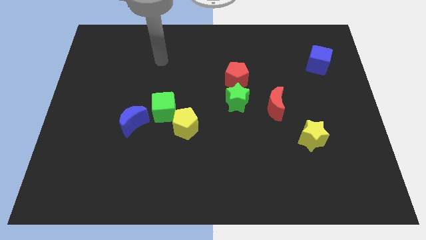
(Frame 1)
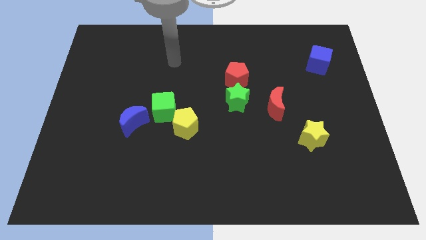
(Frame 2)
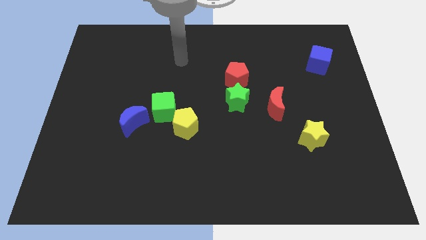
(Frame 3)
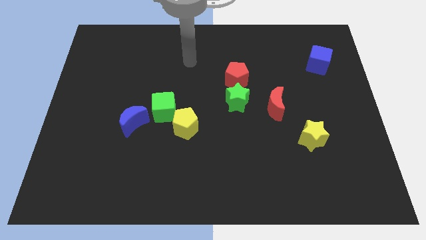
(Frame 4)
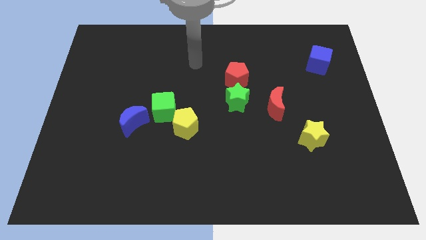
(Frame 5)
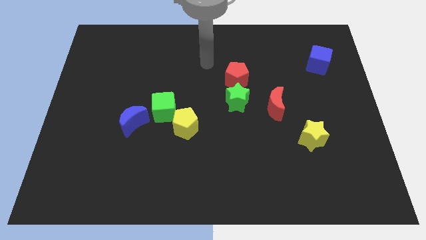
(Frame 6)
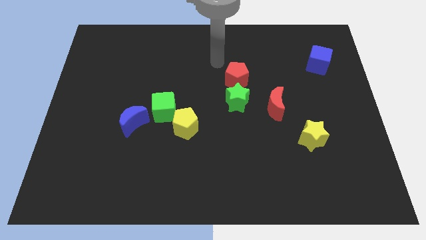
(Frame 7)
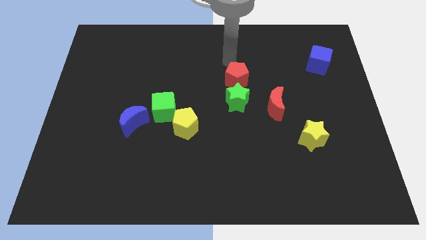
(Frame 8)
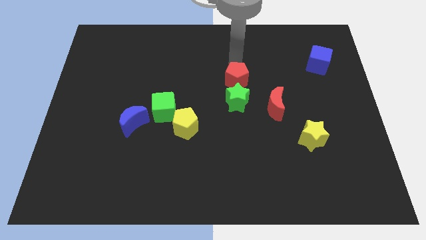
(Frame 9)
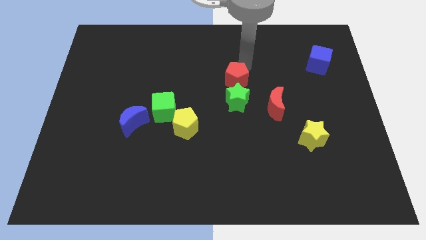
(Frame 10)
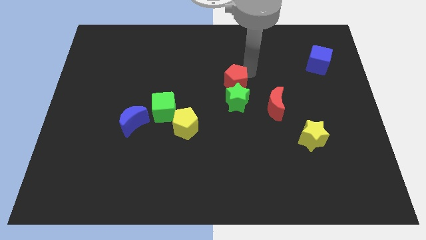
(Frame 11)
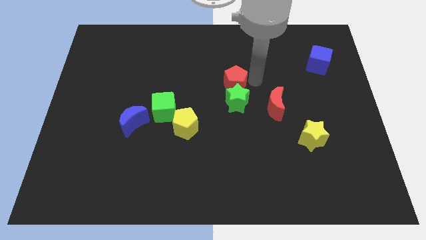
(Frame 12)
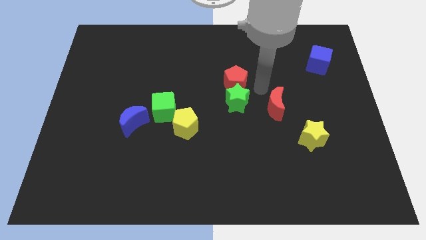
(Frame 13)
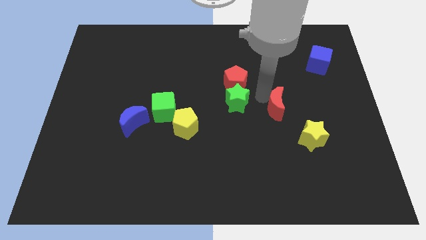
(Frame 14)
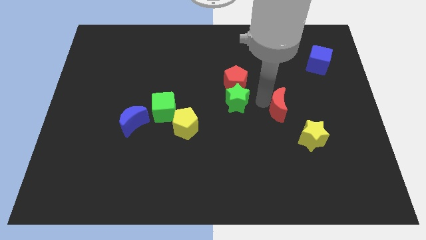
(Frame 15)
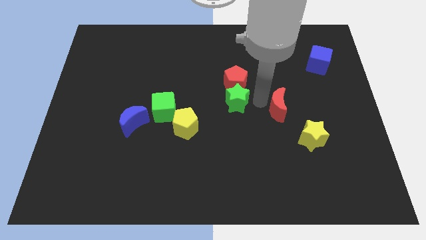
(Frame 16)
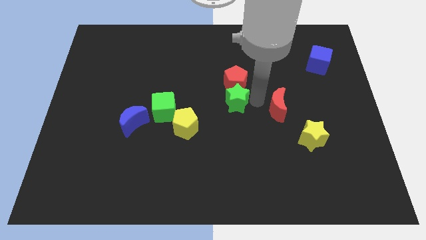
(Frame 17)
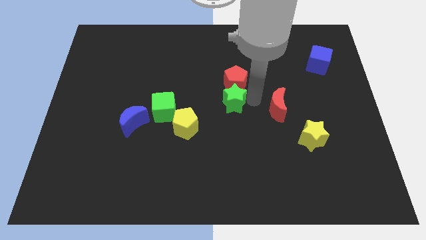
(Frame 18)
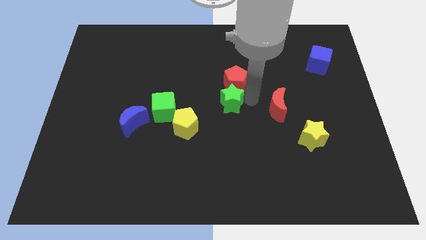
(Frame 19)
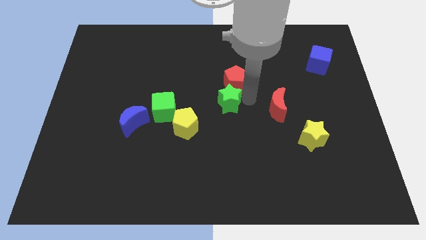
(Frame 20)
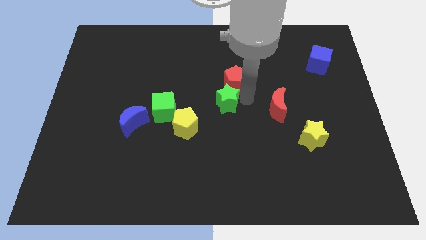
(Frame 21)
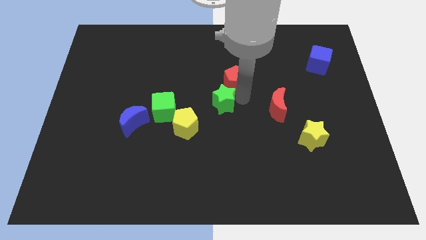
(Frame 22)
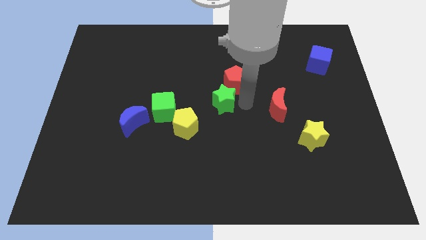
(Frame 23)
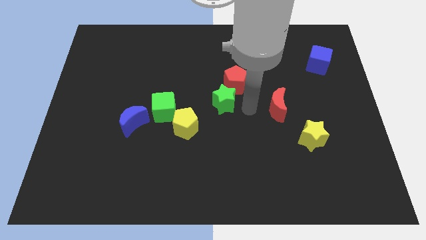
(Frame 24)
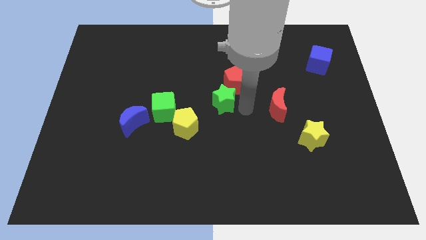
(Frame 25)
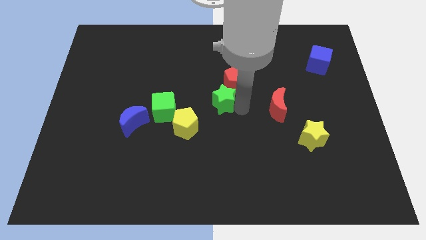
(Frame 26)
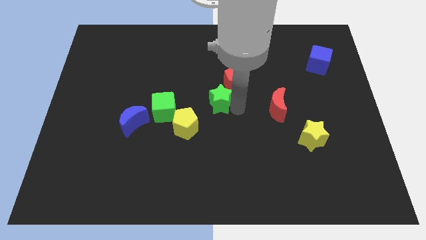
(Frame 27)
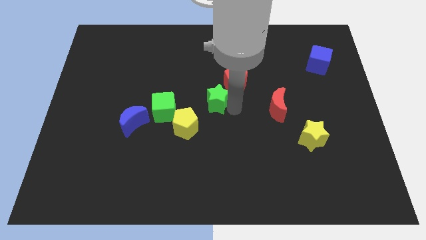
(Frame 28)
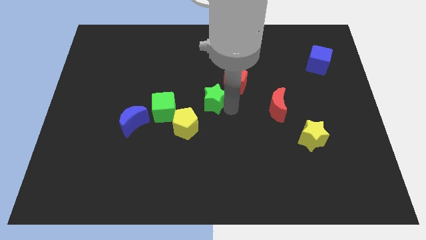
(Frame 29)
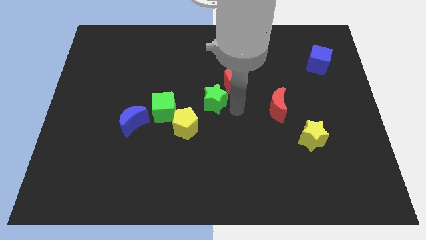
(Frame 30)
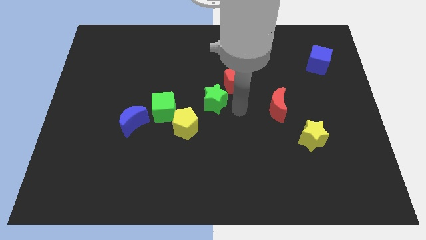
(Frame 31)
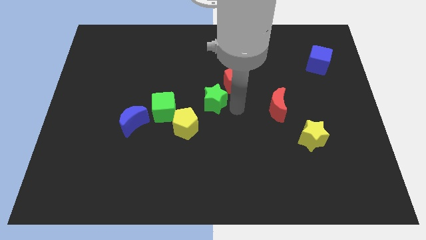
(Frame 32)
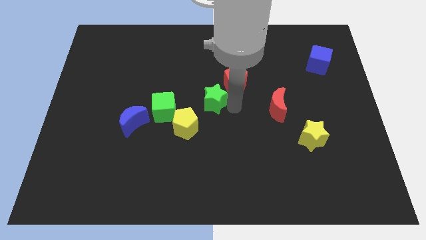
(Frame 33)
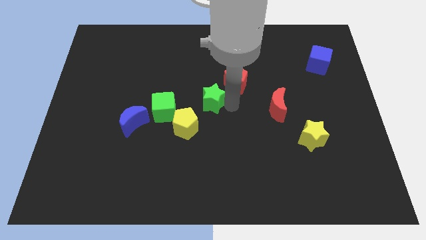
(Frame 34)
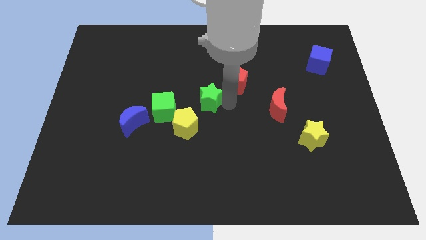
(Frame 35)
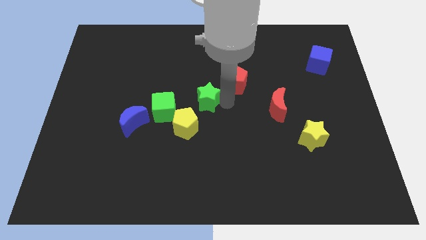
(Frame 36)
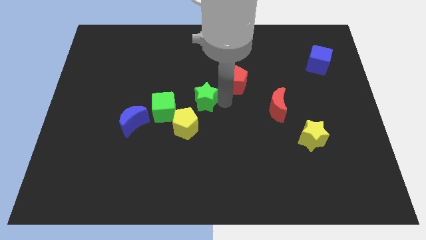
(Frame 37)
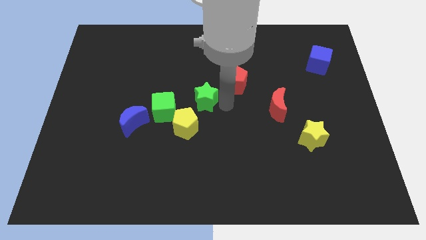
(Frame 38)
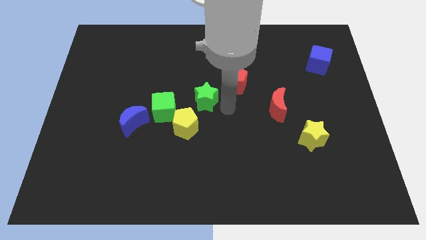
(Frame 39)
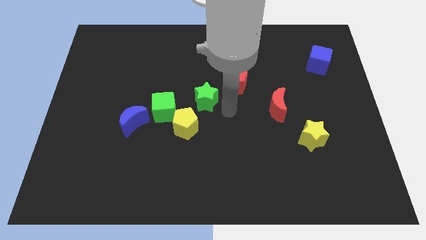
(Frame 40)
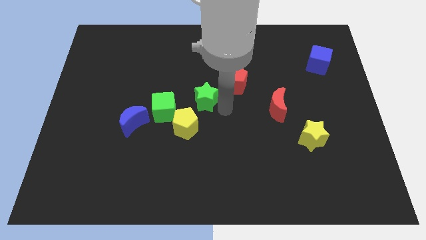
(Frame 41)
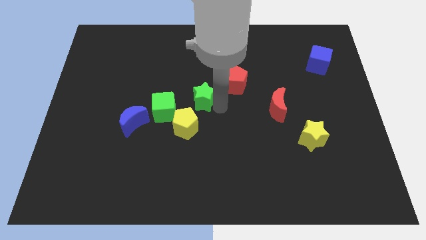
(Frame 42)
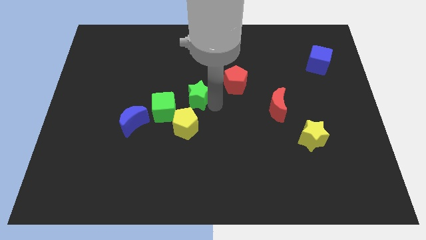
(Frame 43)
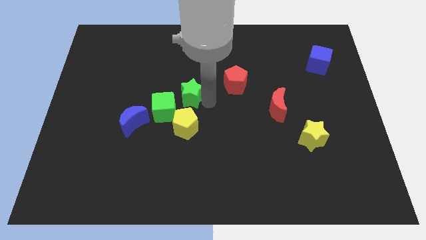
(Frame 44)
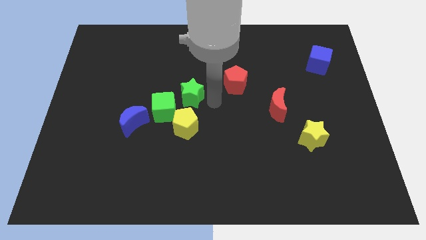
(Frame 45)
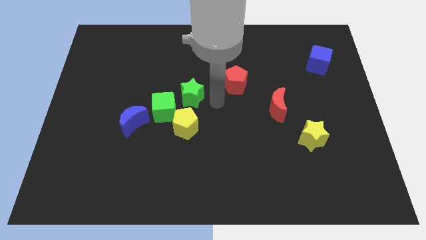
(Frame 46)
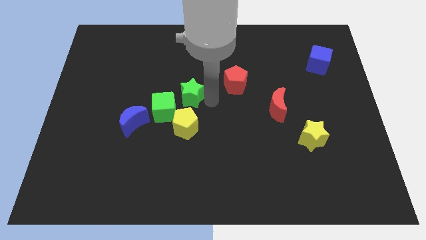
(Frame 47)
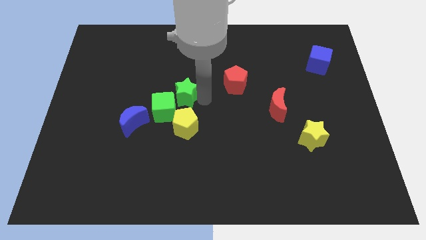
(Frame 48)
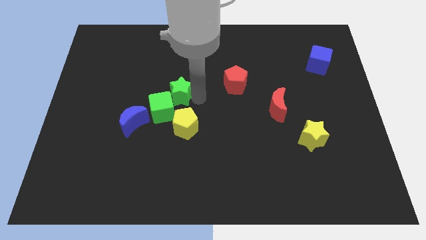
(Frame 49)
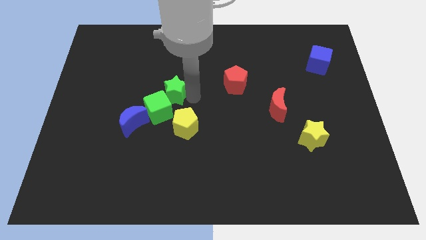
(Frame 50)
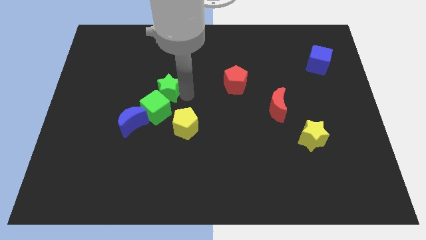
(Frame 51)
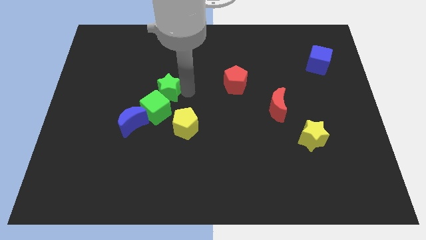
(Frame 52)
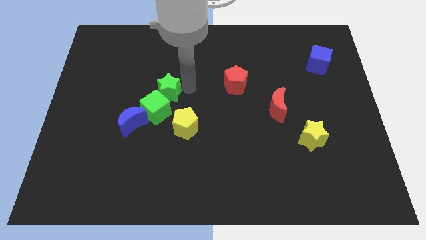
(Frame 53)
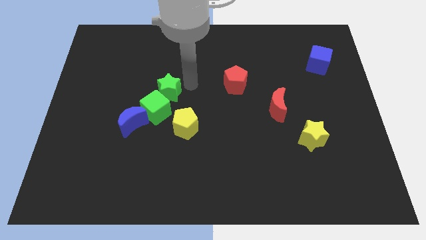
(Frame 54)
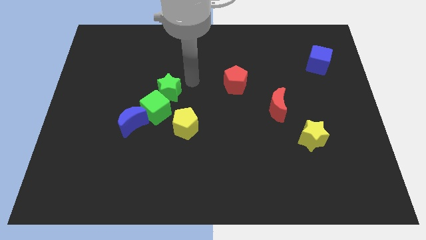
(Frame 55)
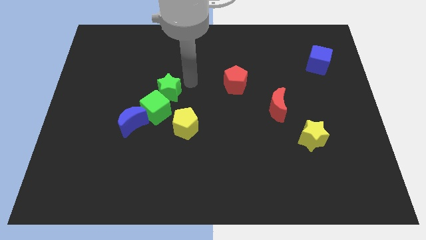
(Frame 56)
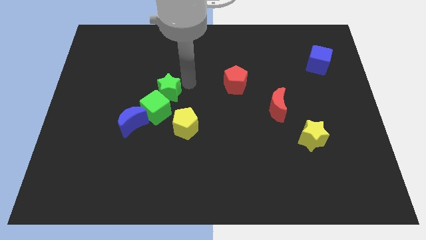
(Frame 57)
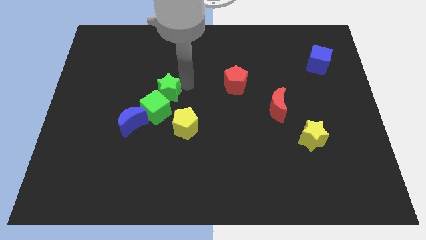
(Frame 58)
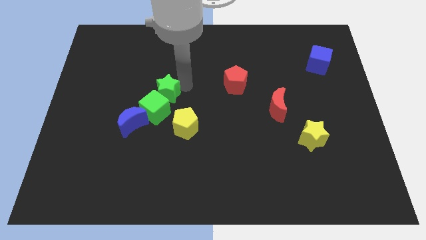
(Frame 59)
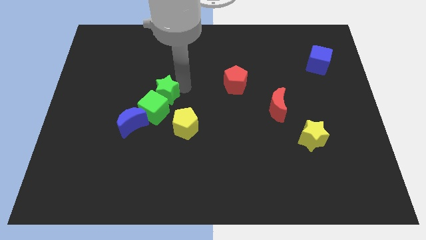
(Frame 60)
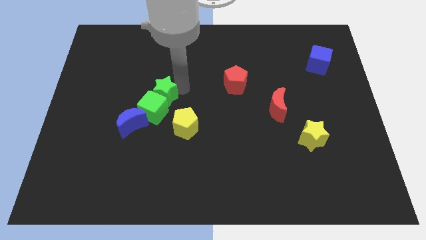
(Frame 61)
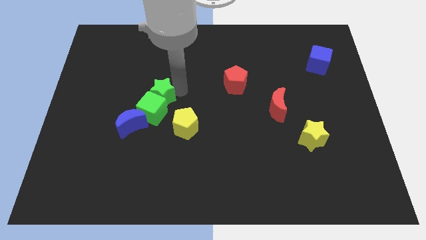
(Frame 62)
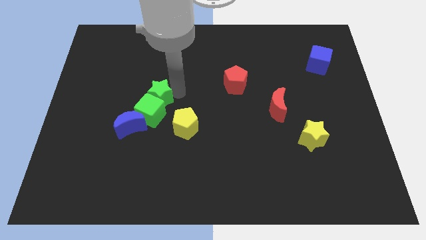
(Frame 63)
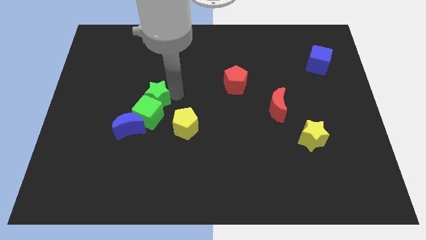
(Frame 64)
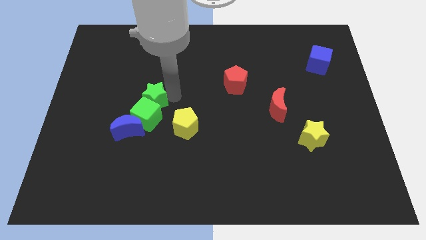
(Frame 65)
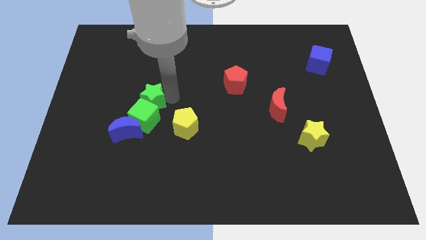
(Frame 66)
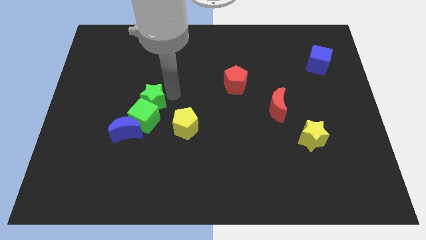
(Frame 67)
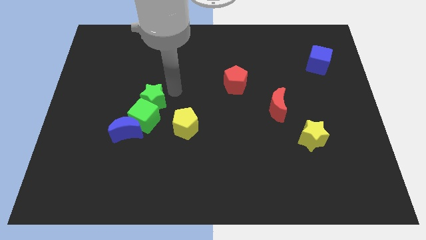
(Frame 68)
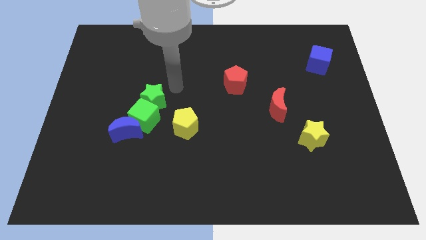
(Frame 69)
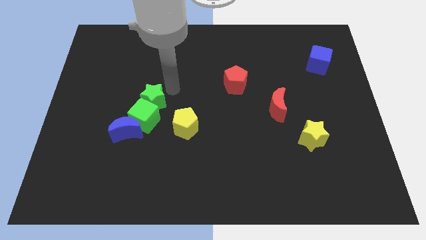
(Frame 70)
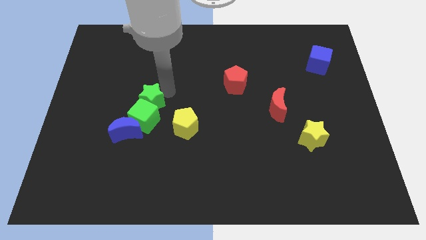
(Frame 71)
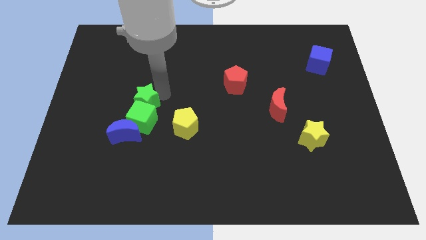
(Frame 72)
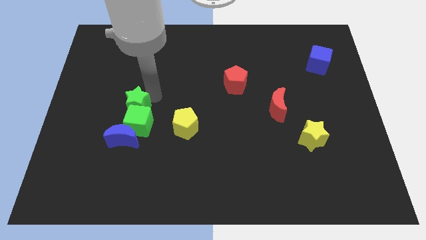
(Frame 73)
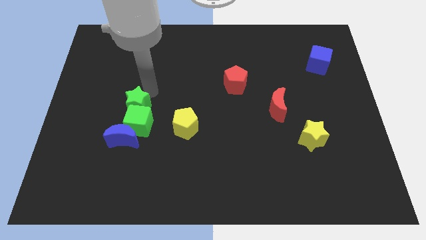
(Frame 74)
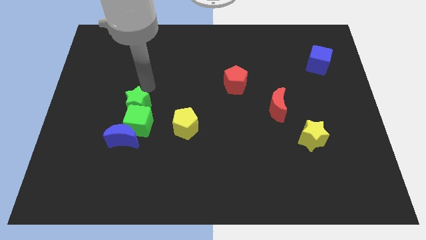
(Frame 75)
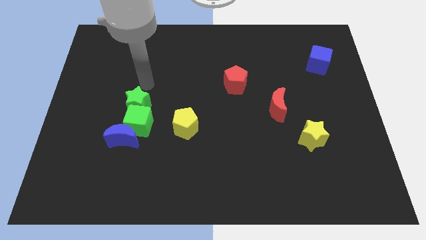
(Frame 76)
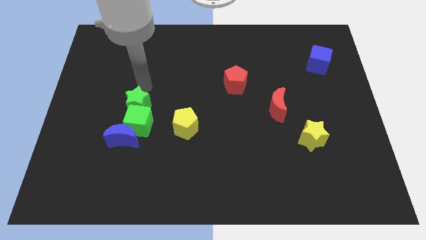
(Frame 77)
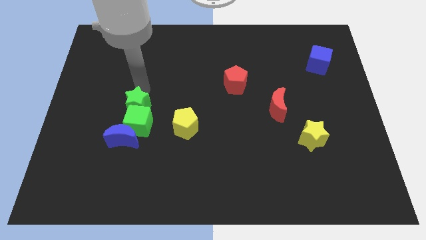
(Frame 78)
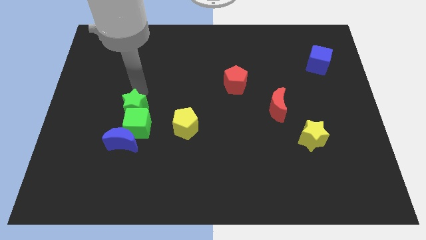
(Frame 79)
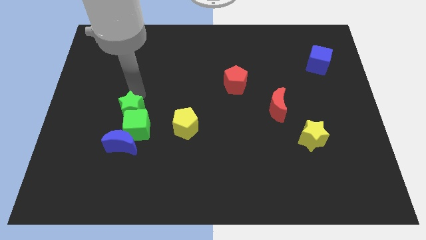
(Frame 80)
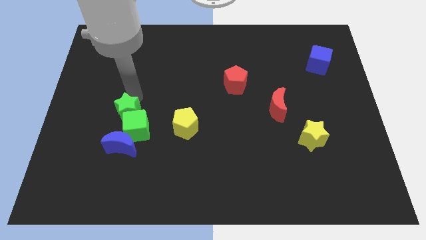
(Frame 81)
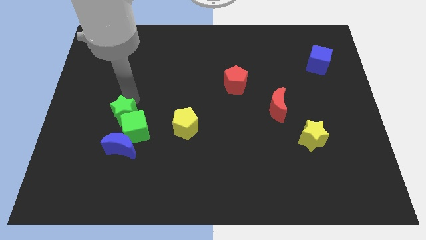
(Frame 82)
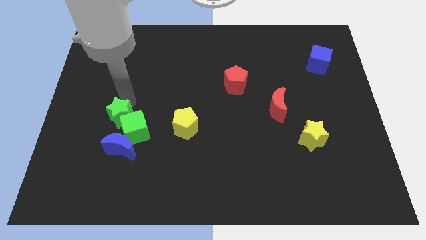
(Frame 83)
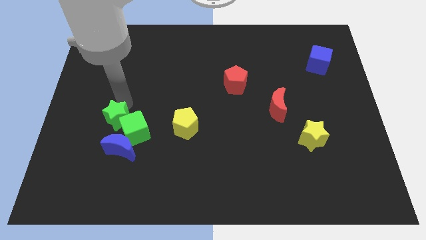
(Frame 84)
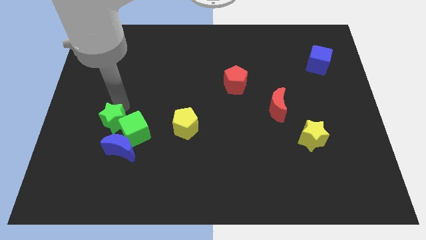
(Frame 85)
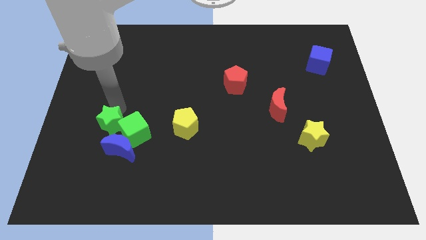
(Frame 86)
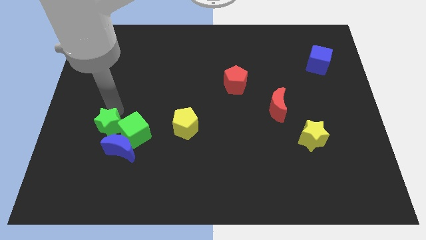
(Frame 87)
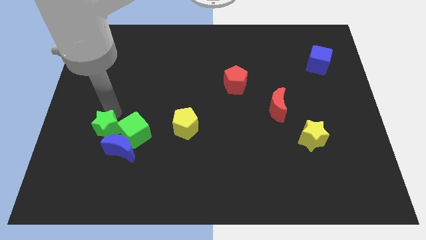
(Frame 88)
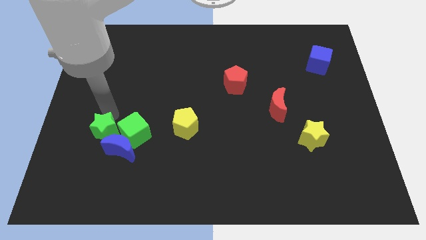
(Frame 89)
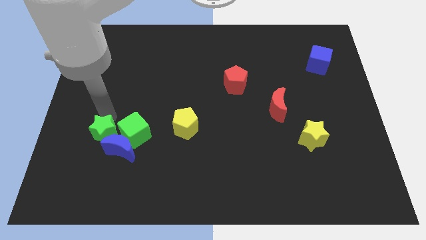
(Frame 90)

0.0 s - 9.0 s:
move the green star next to the blue moon
